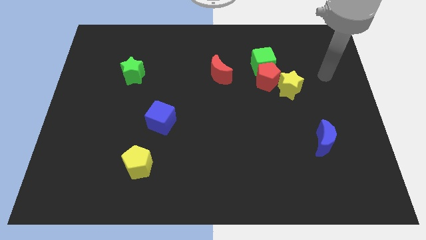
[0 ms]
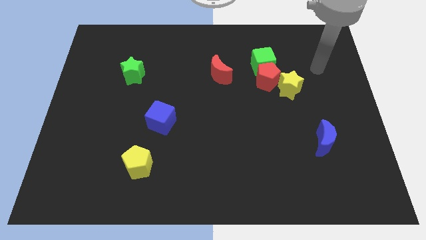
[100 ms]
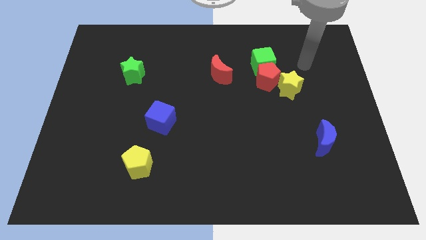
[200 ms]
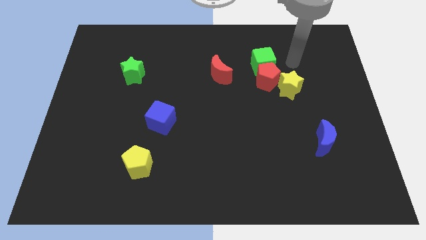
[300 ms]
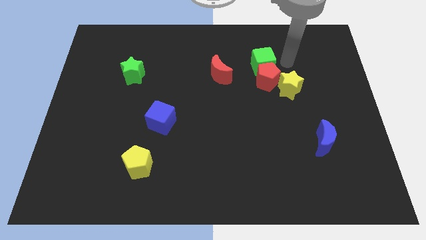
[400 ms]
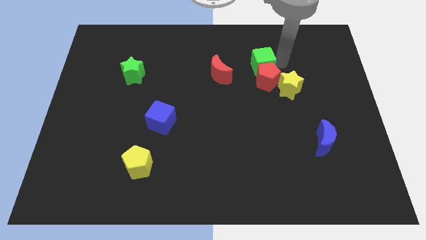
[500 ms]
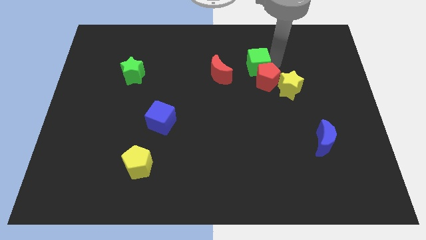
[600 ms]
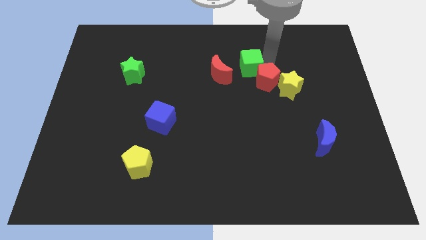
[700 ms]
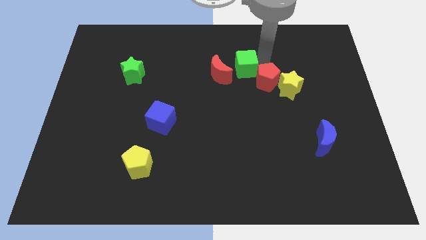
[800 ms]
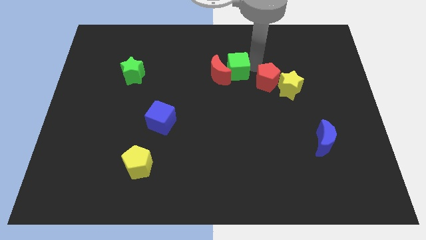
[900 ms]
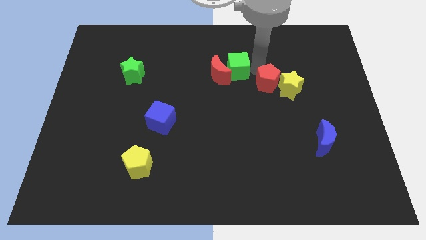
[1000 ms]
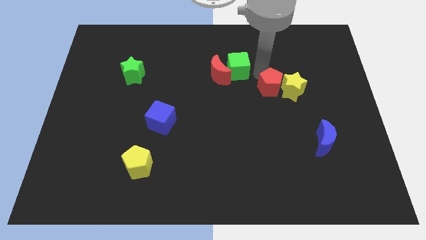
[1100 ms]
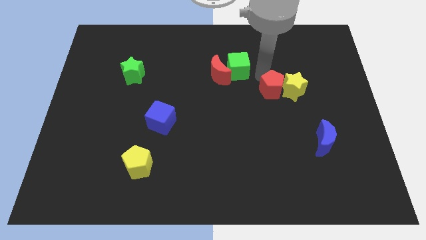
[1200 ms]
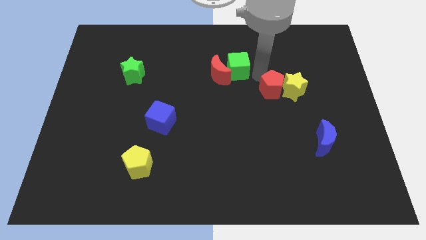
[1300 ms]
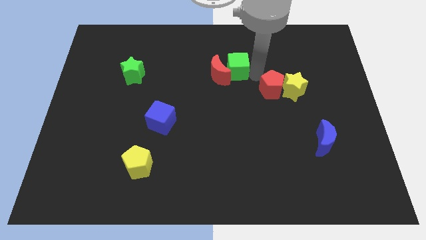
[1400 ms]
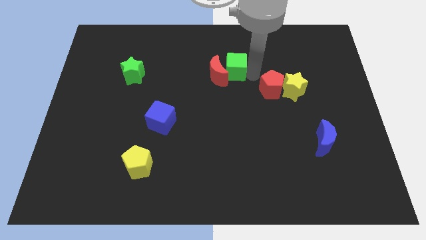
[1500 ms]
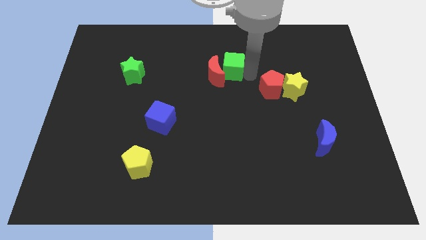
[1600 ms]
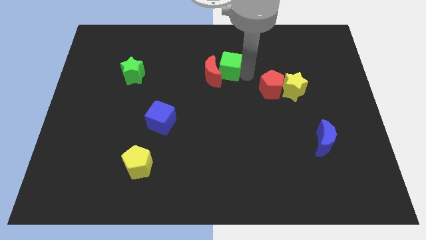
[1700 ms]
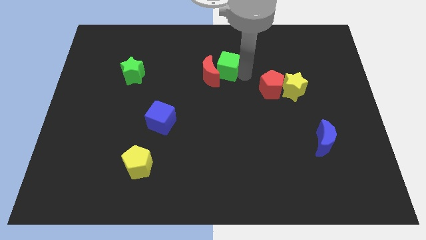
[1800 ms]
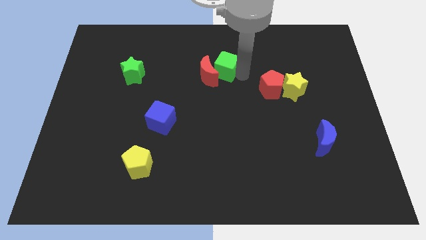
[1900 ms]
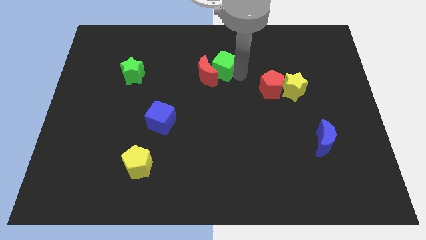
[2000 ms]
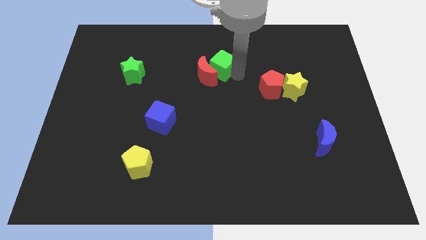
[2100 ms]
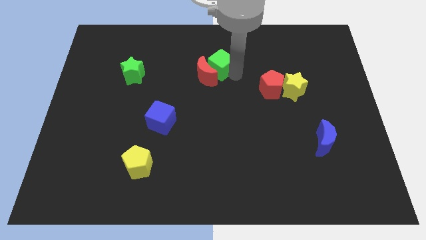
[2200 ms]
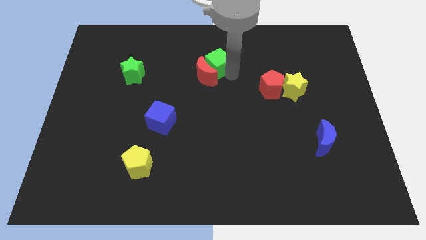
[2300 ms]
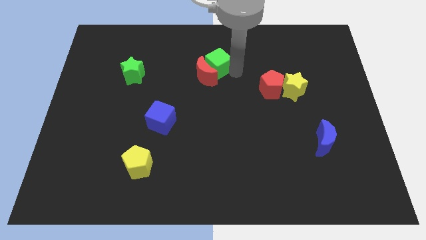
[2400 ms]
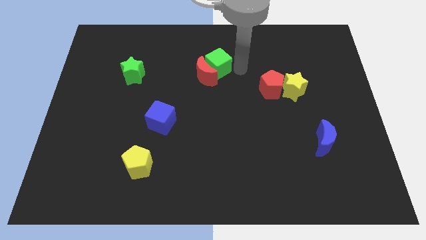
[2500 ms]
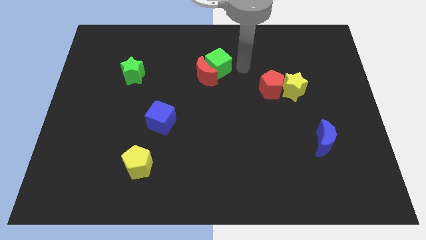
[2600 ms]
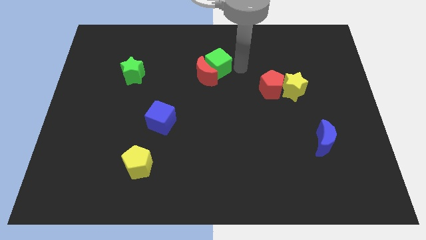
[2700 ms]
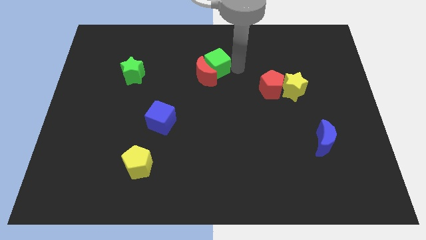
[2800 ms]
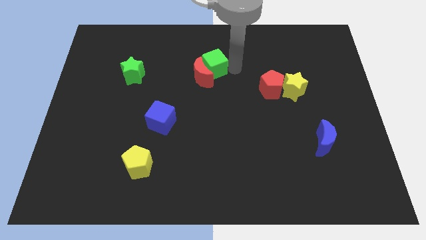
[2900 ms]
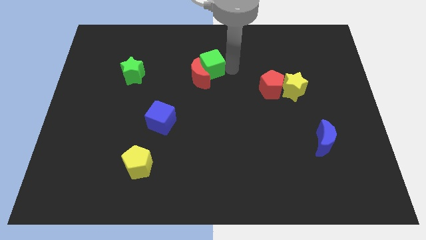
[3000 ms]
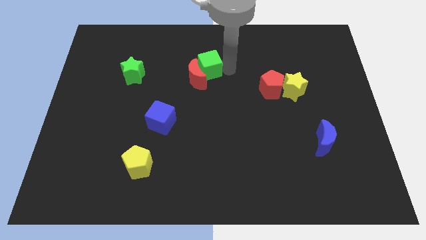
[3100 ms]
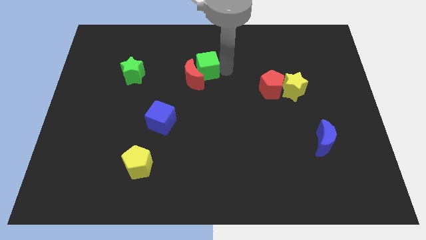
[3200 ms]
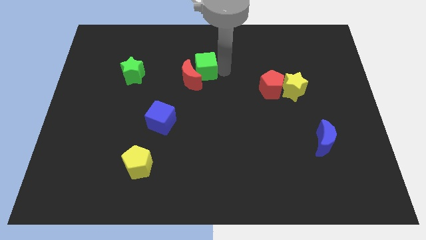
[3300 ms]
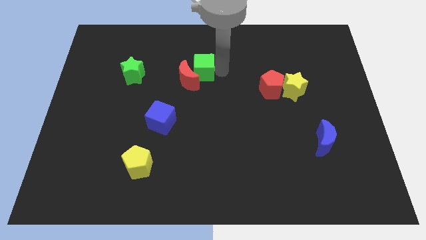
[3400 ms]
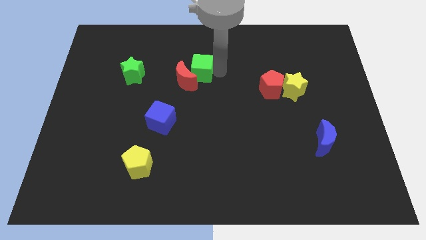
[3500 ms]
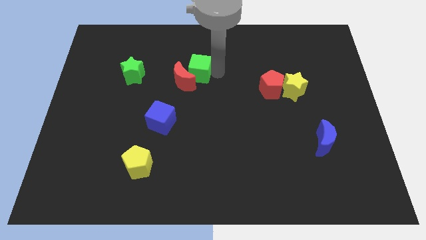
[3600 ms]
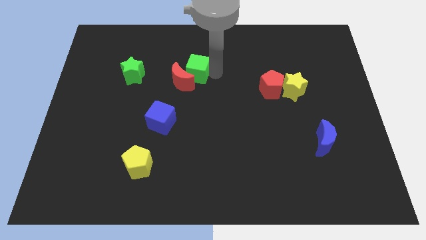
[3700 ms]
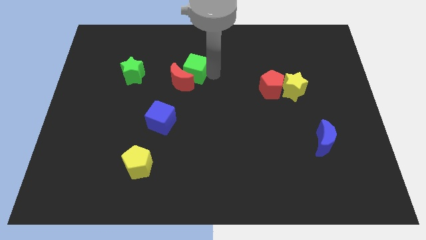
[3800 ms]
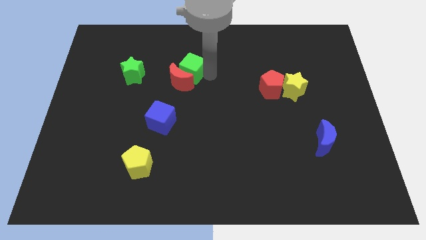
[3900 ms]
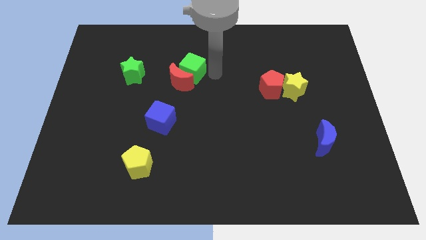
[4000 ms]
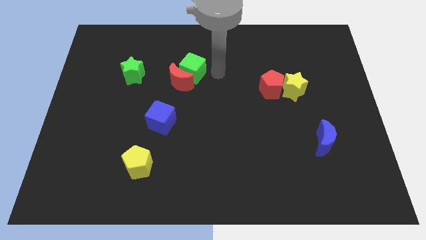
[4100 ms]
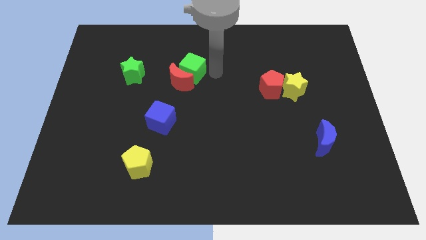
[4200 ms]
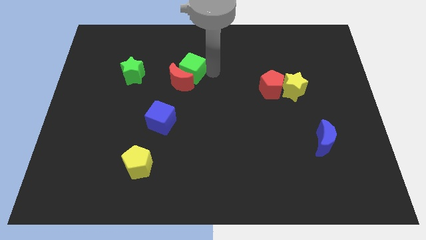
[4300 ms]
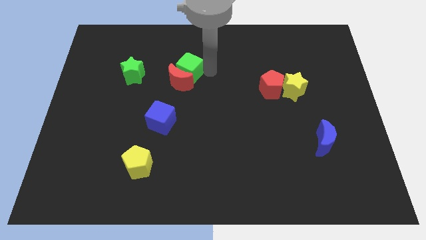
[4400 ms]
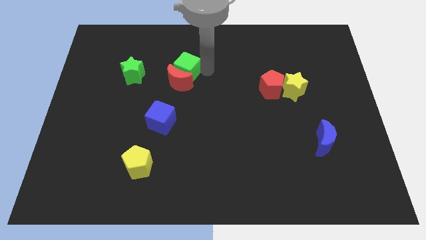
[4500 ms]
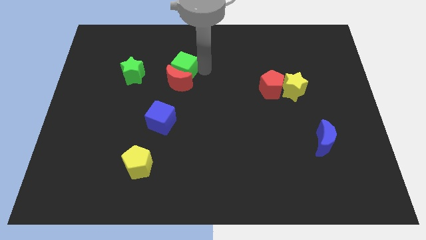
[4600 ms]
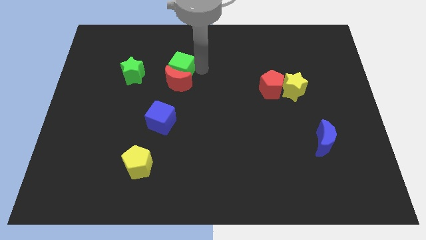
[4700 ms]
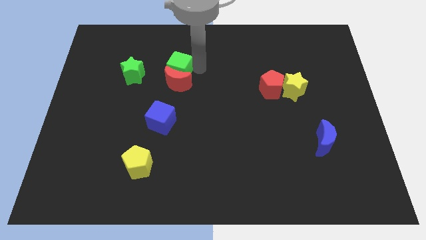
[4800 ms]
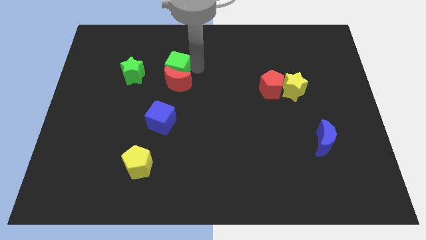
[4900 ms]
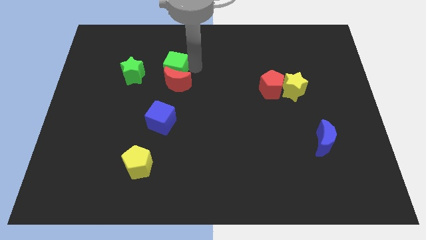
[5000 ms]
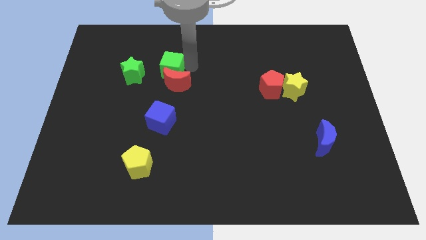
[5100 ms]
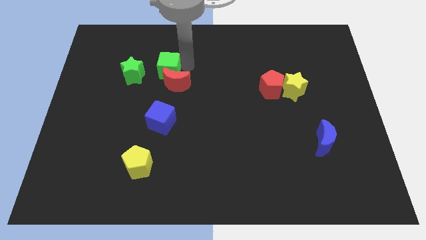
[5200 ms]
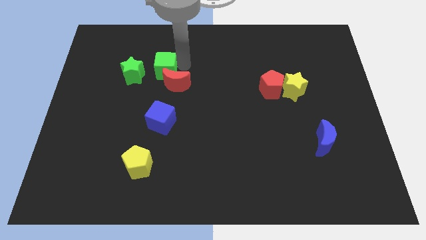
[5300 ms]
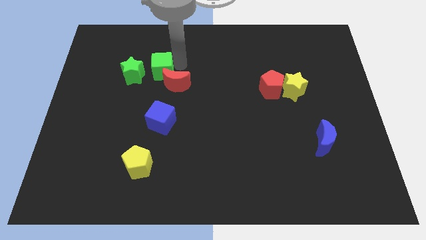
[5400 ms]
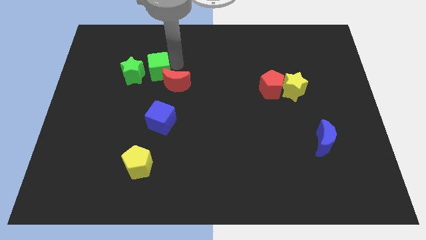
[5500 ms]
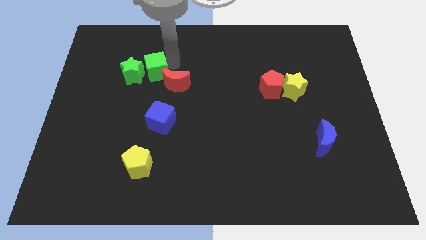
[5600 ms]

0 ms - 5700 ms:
move the green cube close to the green star

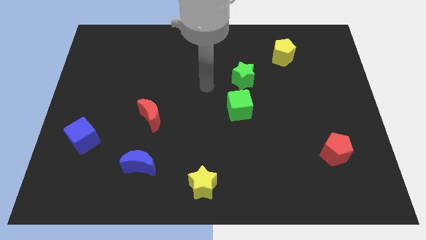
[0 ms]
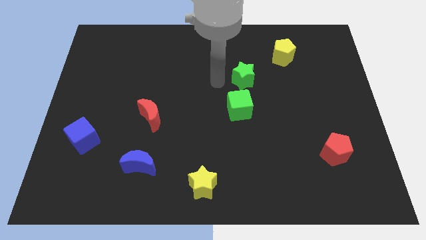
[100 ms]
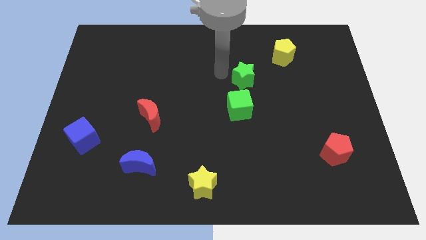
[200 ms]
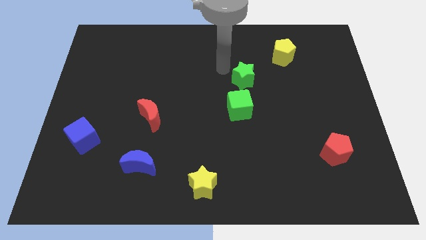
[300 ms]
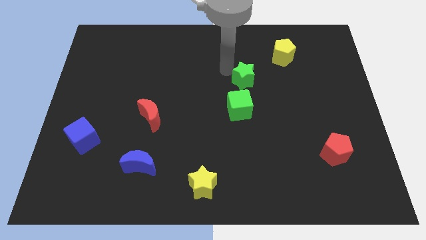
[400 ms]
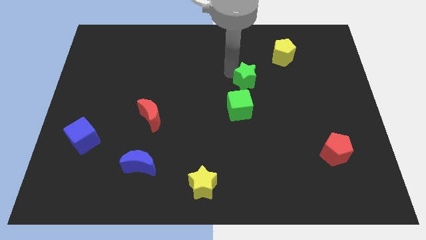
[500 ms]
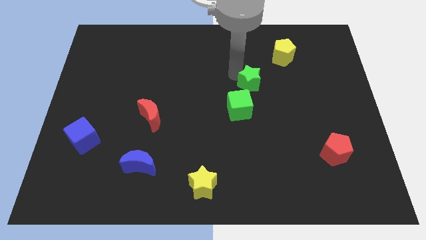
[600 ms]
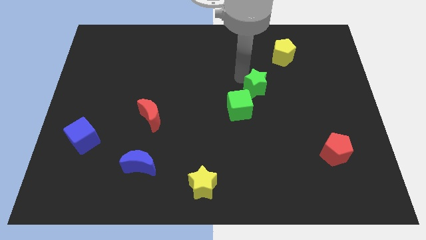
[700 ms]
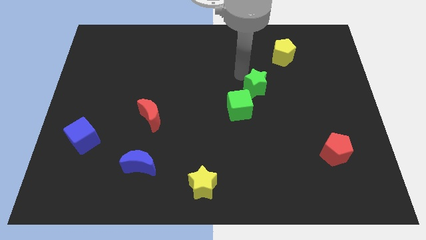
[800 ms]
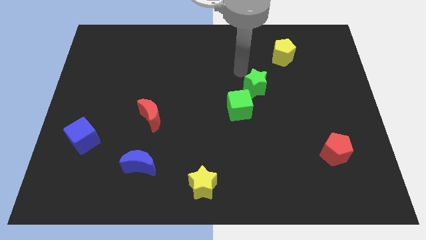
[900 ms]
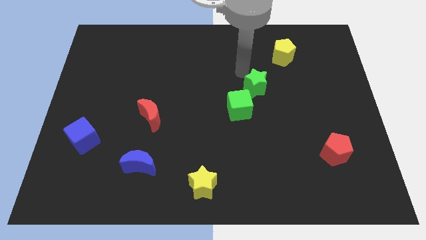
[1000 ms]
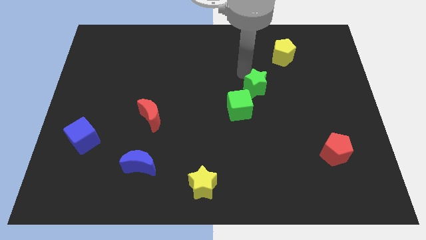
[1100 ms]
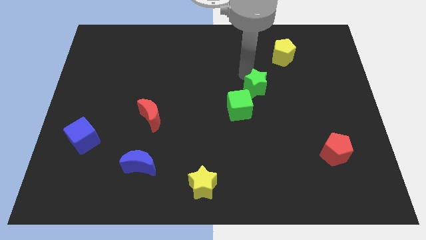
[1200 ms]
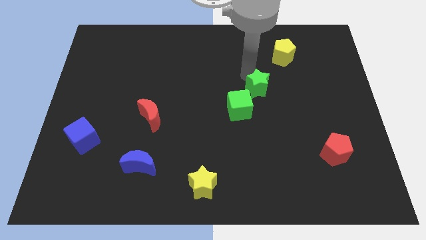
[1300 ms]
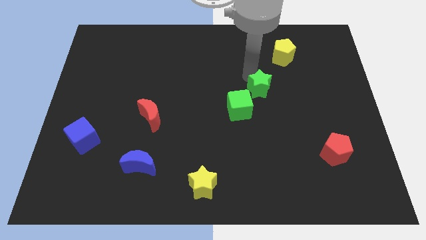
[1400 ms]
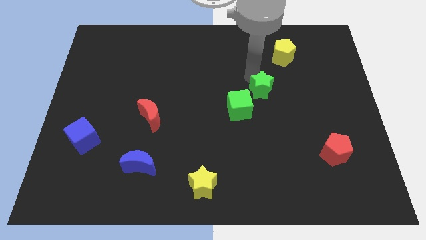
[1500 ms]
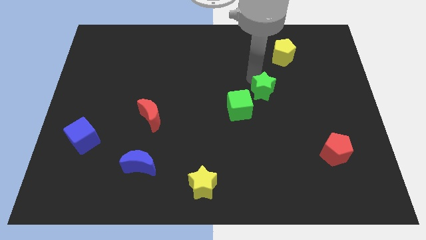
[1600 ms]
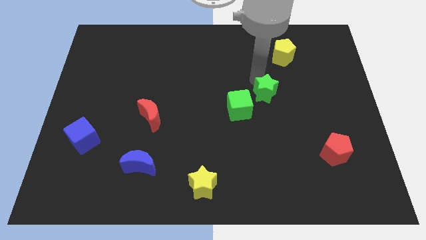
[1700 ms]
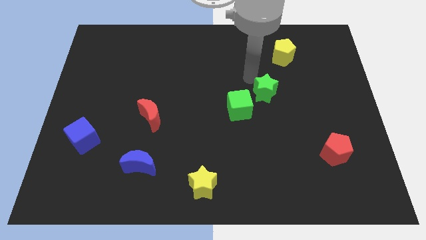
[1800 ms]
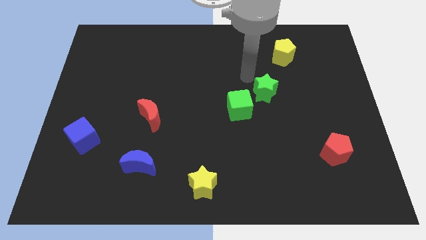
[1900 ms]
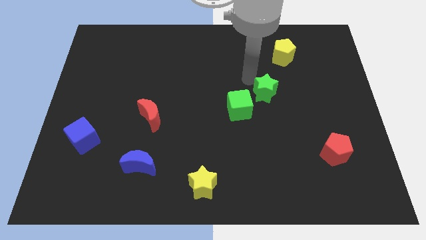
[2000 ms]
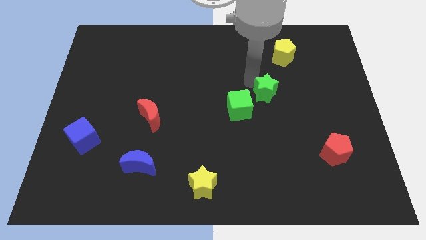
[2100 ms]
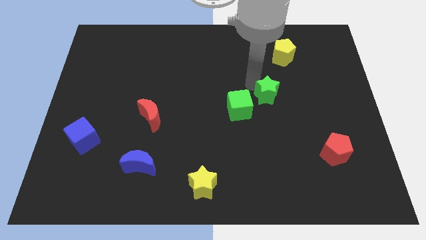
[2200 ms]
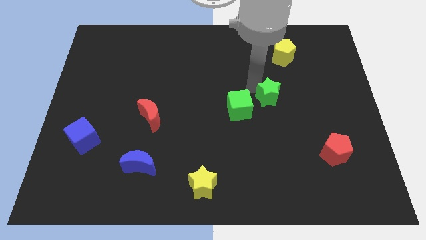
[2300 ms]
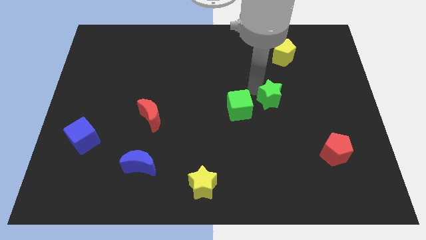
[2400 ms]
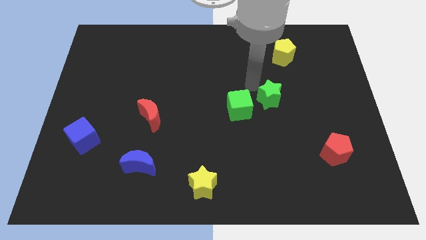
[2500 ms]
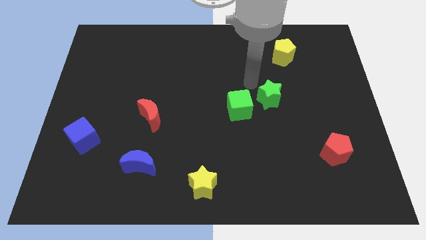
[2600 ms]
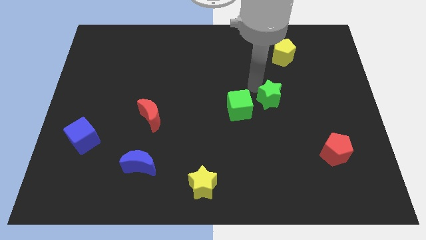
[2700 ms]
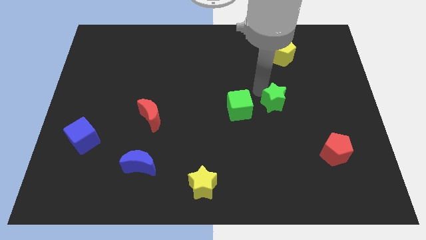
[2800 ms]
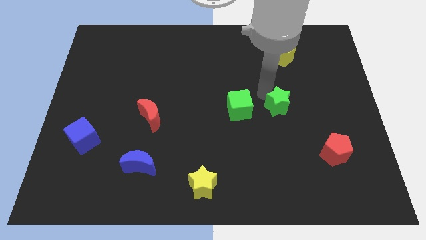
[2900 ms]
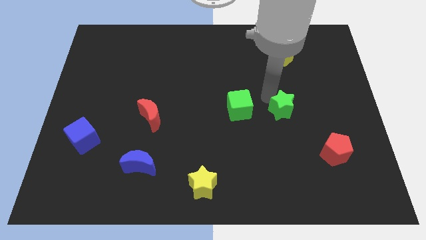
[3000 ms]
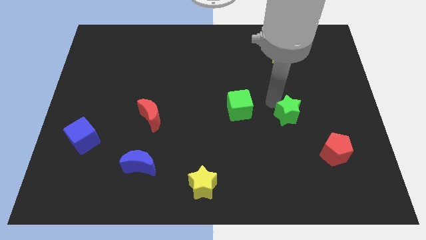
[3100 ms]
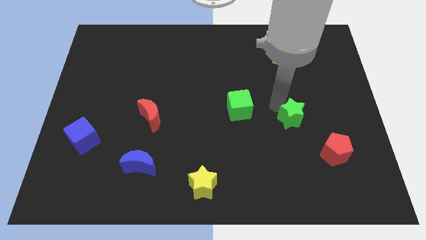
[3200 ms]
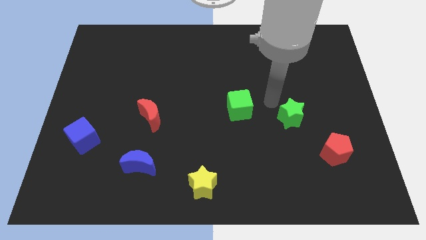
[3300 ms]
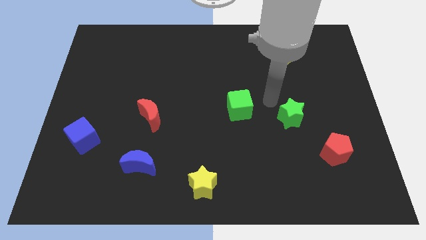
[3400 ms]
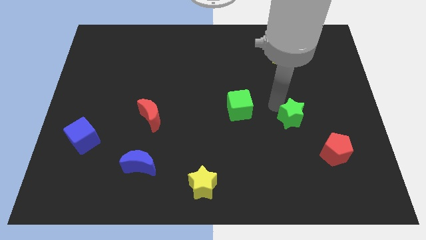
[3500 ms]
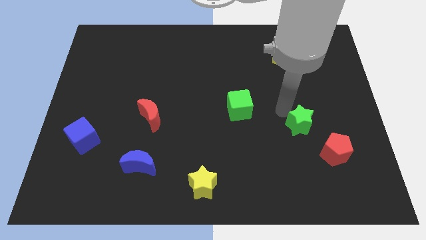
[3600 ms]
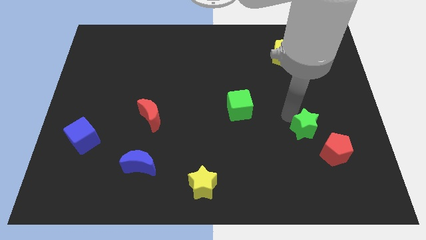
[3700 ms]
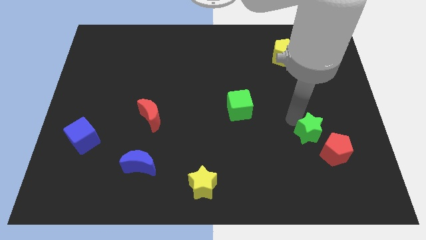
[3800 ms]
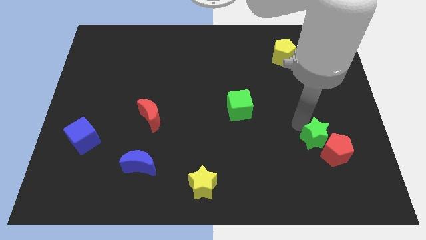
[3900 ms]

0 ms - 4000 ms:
push the green star next to the red pentagon
